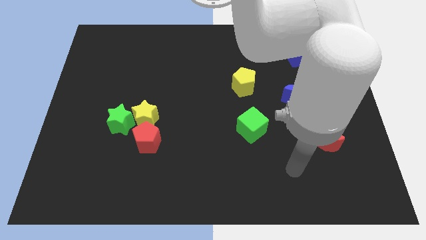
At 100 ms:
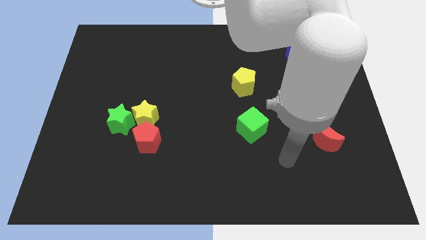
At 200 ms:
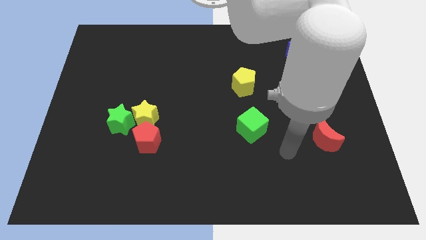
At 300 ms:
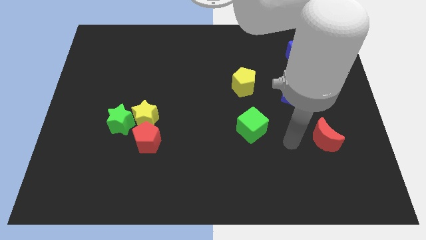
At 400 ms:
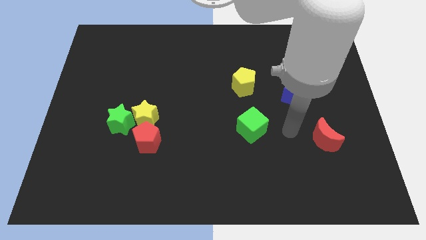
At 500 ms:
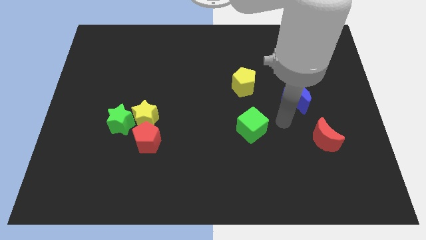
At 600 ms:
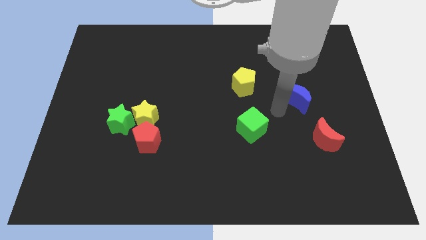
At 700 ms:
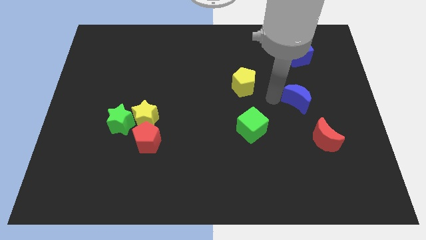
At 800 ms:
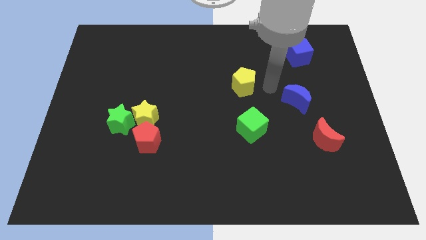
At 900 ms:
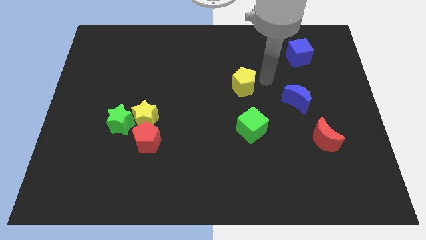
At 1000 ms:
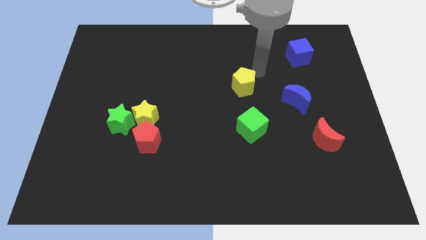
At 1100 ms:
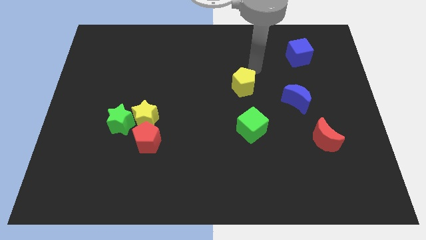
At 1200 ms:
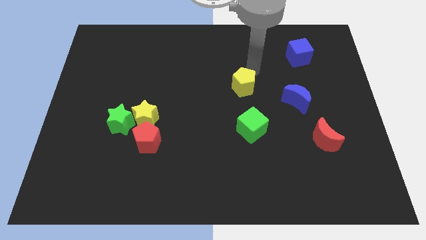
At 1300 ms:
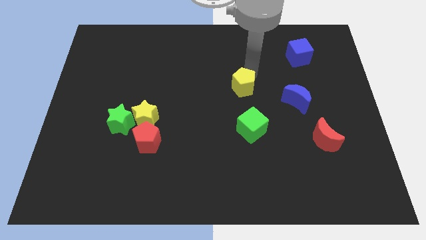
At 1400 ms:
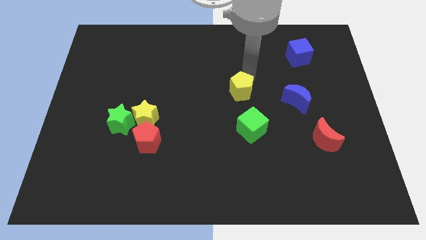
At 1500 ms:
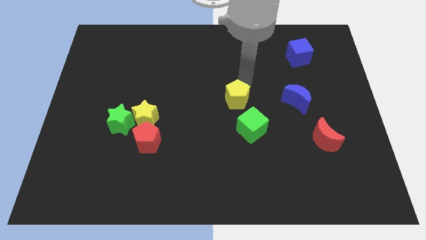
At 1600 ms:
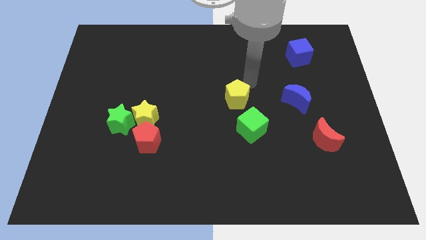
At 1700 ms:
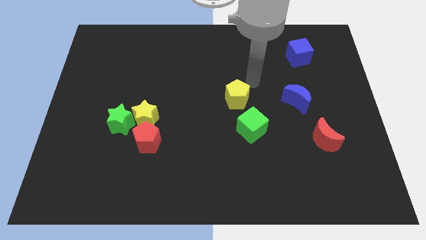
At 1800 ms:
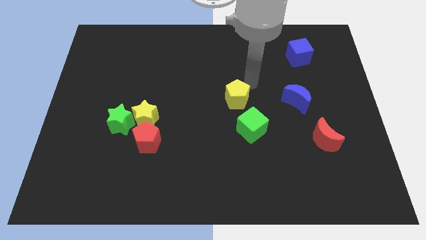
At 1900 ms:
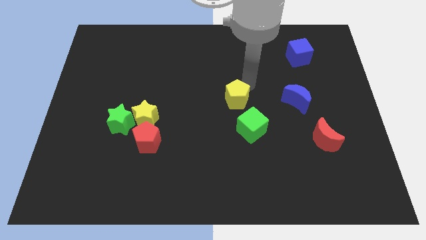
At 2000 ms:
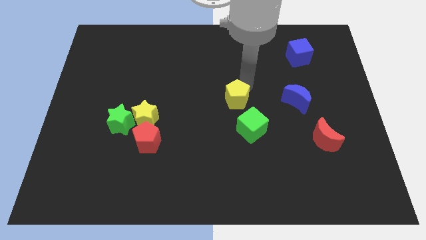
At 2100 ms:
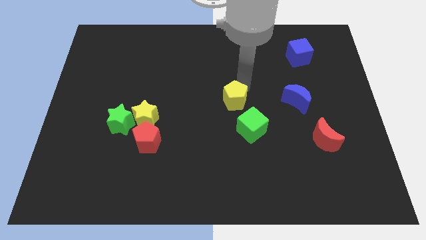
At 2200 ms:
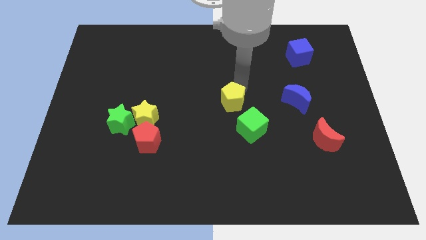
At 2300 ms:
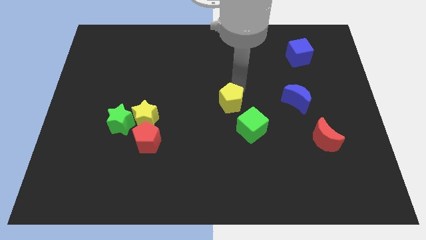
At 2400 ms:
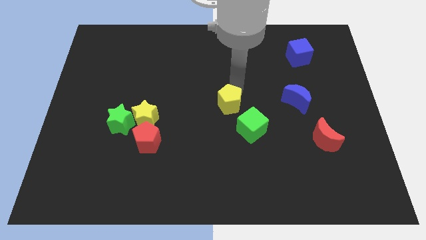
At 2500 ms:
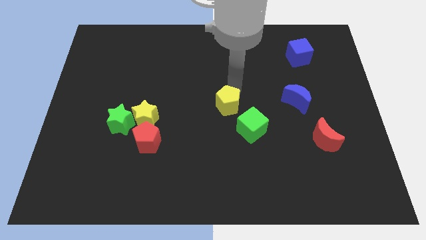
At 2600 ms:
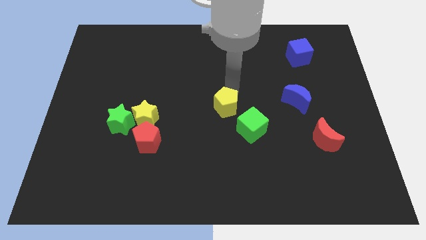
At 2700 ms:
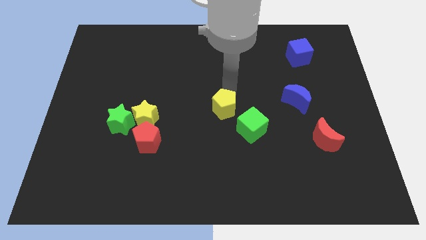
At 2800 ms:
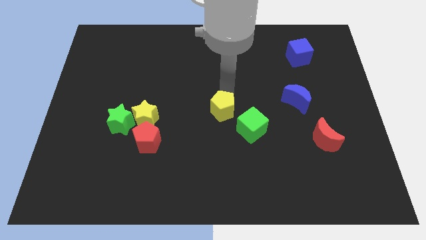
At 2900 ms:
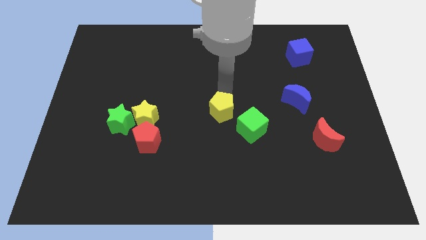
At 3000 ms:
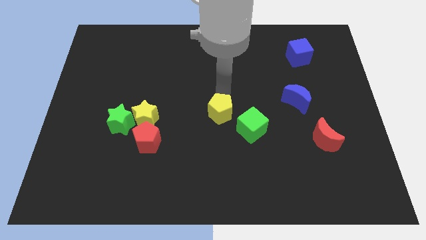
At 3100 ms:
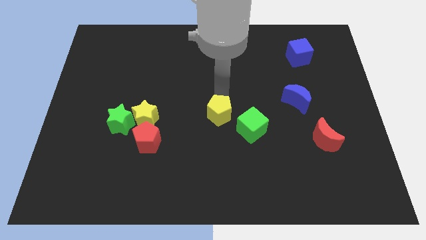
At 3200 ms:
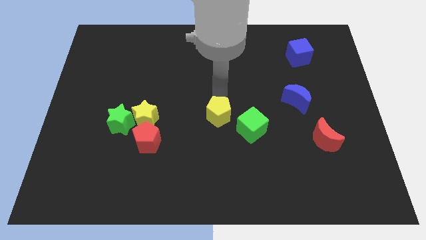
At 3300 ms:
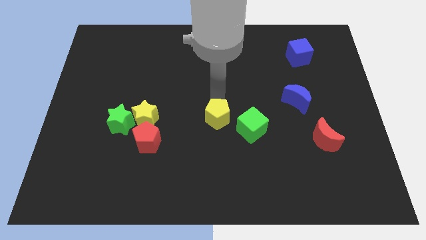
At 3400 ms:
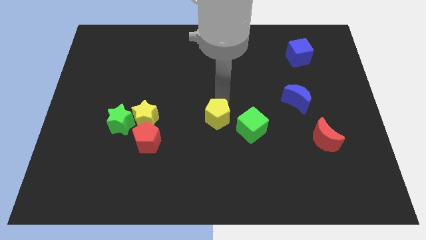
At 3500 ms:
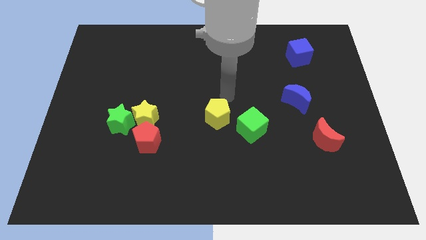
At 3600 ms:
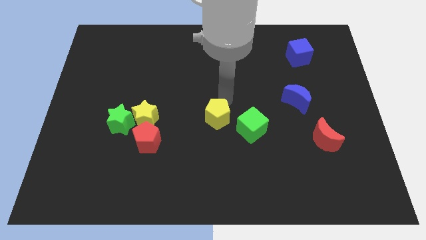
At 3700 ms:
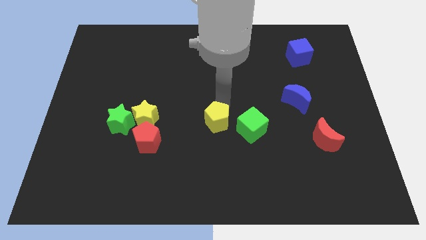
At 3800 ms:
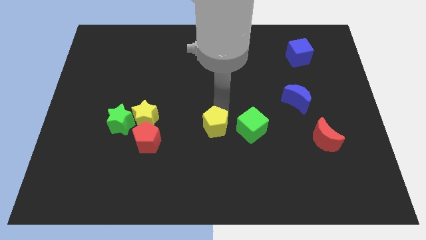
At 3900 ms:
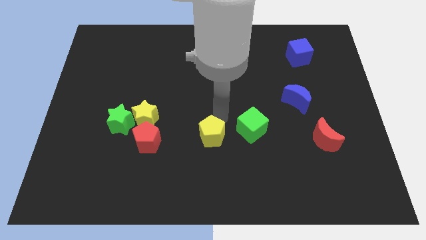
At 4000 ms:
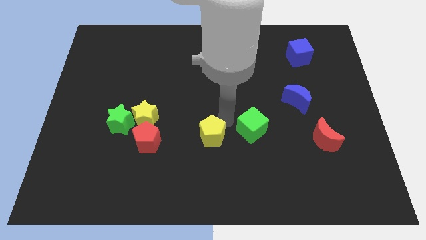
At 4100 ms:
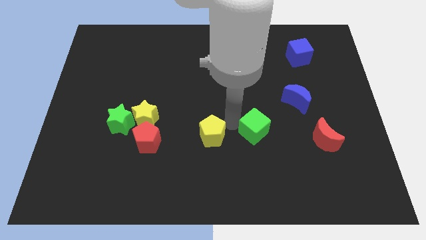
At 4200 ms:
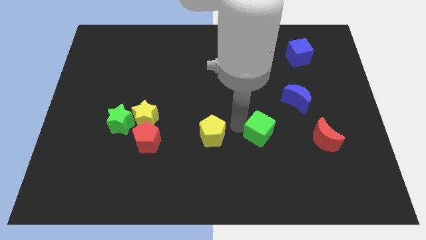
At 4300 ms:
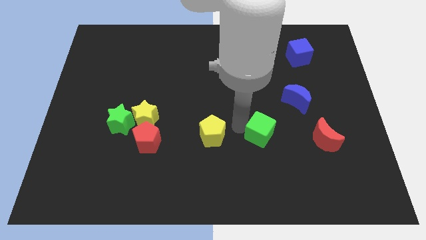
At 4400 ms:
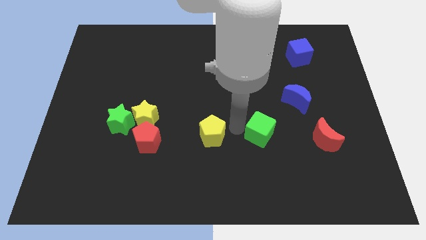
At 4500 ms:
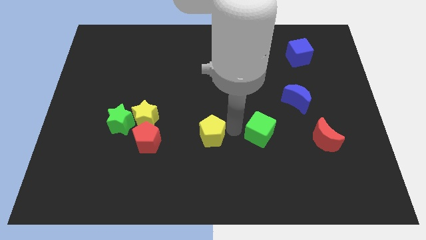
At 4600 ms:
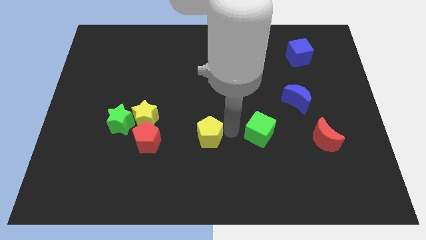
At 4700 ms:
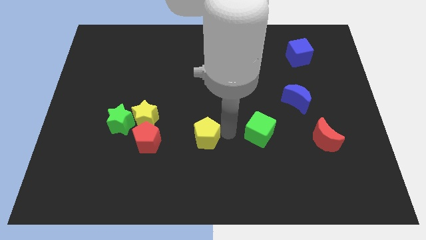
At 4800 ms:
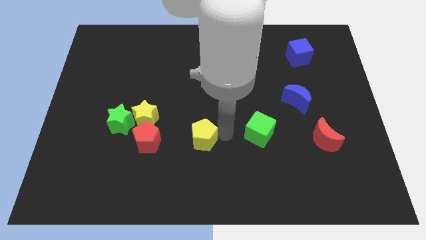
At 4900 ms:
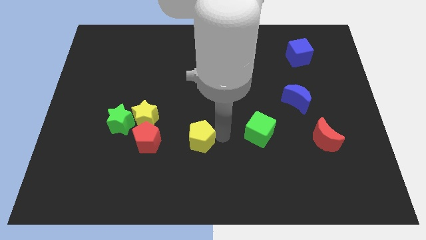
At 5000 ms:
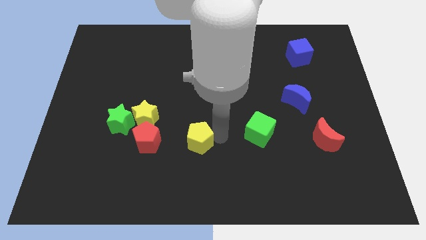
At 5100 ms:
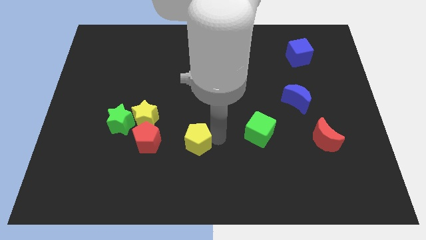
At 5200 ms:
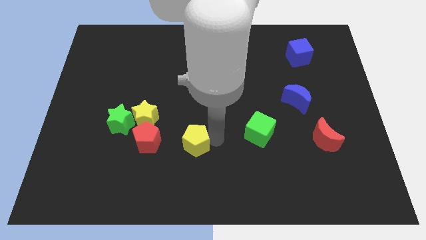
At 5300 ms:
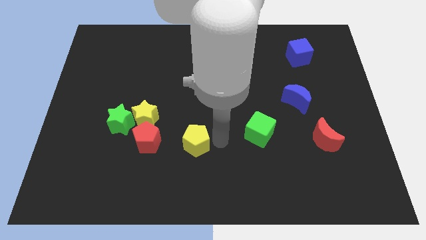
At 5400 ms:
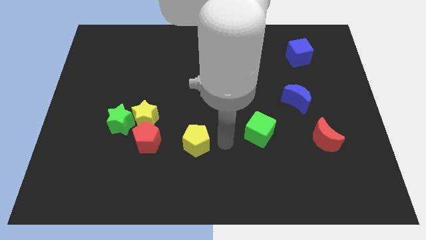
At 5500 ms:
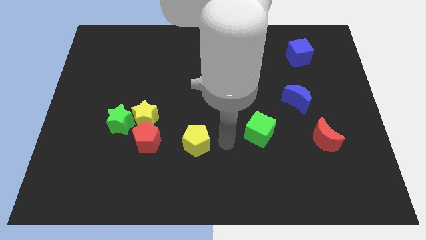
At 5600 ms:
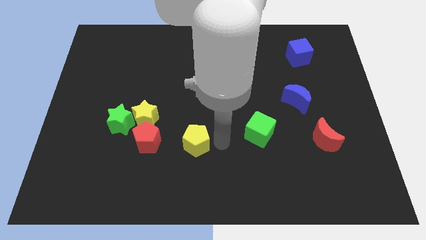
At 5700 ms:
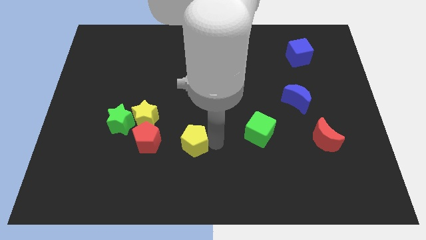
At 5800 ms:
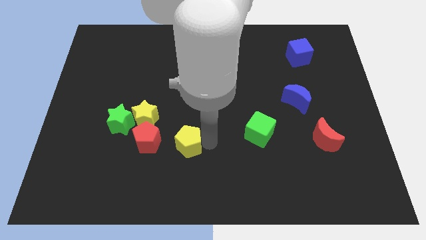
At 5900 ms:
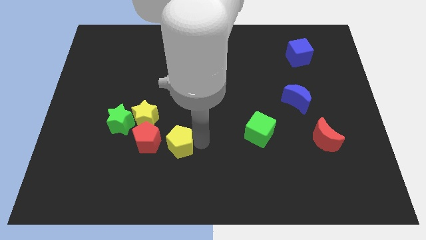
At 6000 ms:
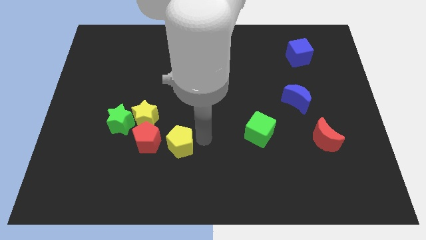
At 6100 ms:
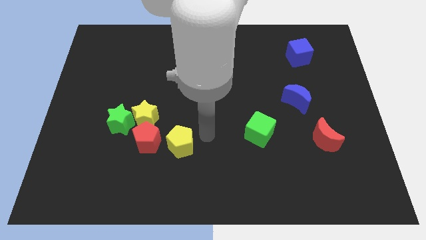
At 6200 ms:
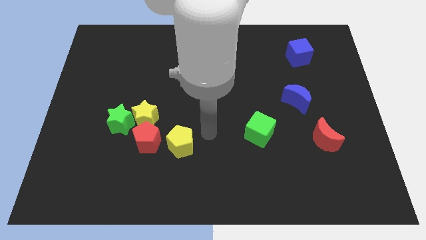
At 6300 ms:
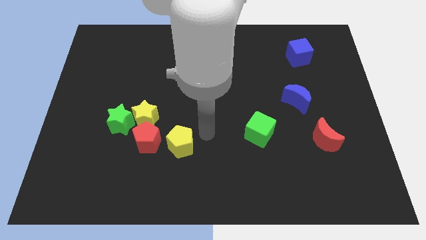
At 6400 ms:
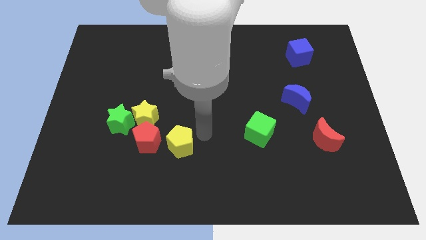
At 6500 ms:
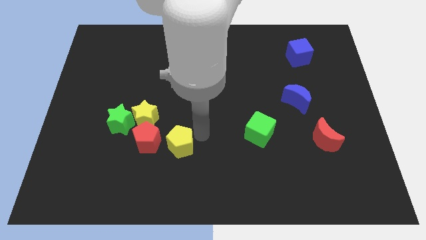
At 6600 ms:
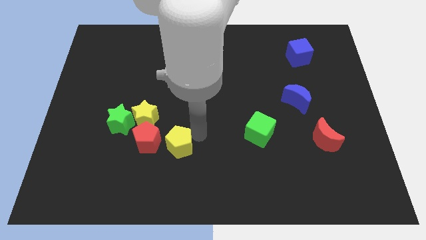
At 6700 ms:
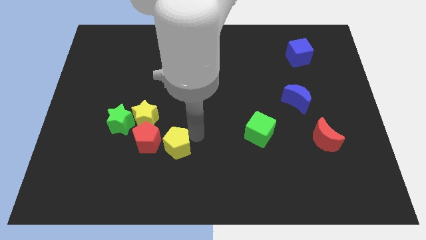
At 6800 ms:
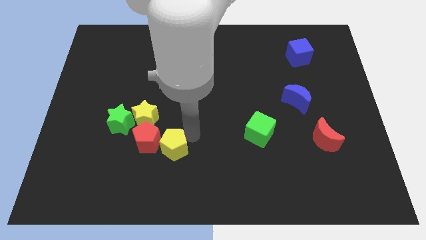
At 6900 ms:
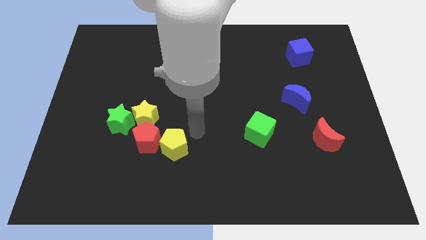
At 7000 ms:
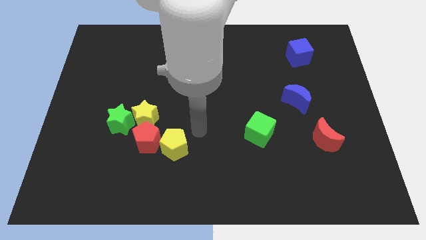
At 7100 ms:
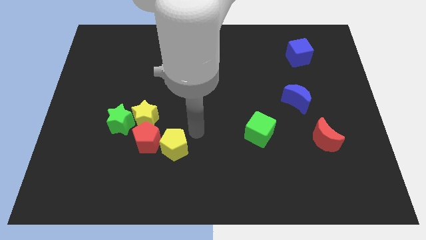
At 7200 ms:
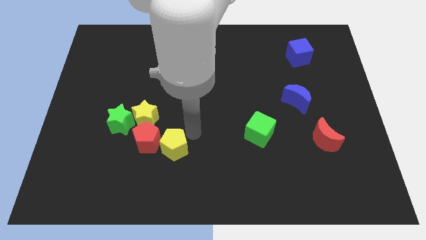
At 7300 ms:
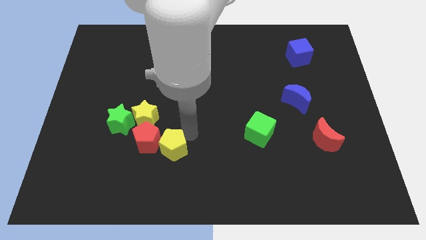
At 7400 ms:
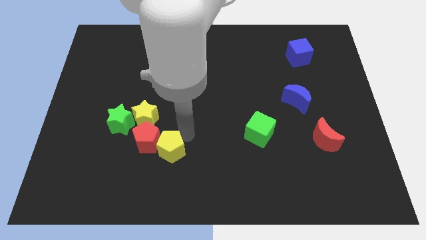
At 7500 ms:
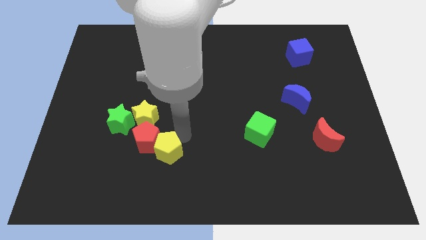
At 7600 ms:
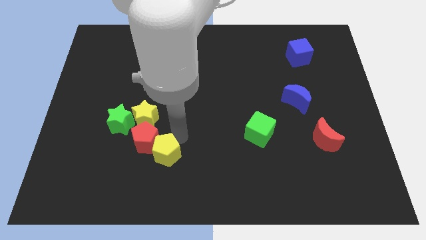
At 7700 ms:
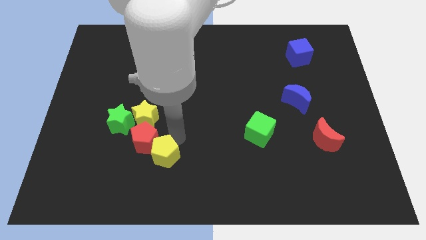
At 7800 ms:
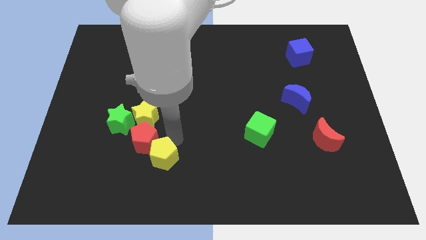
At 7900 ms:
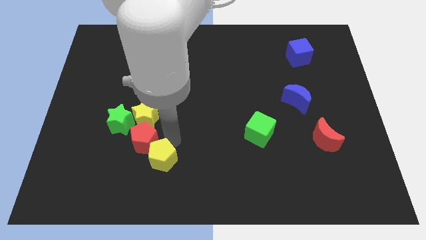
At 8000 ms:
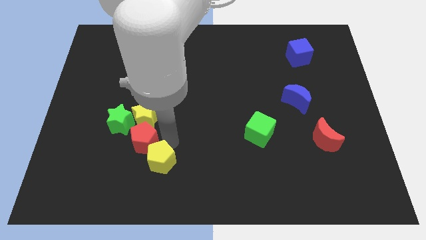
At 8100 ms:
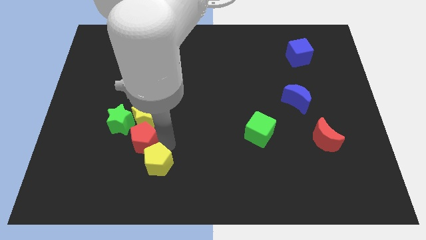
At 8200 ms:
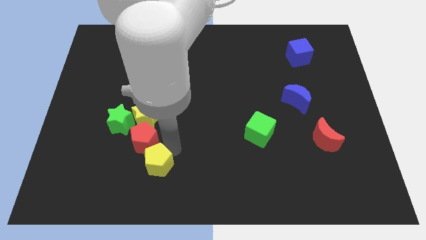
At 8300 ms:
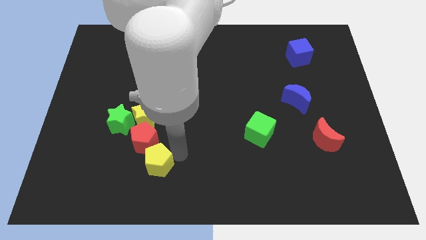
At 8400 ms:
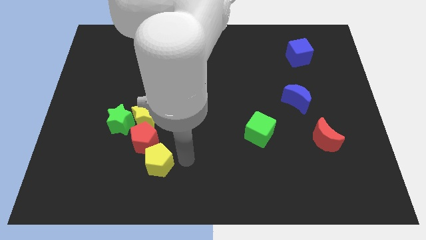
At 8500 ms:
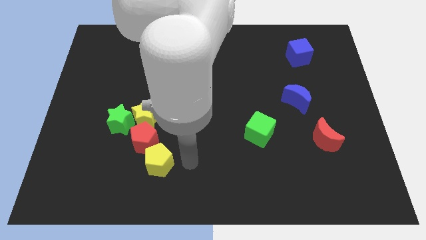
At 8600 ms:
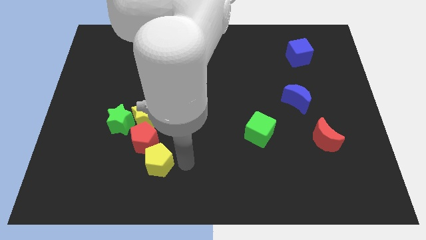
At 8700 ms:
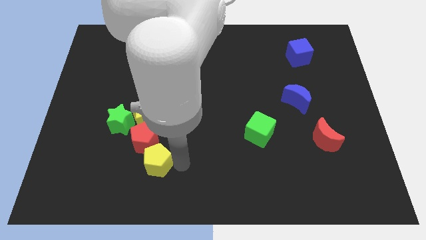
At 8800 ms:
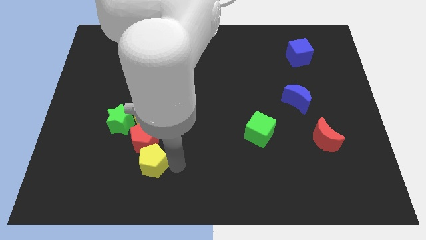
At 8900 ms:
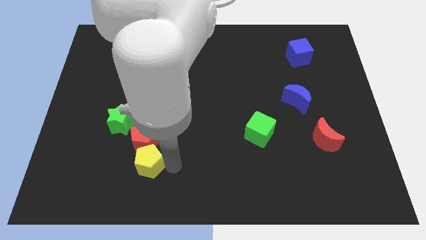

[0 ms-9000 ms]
put the yellow pentagon diagonally down and to the left of the red pentagon
